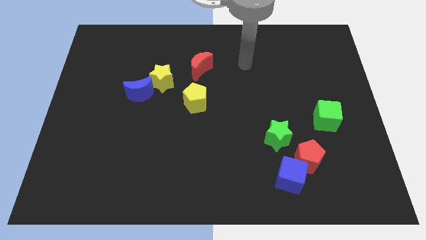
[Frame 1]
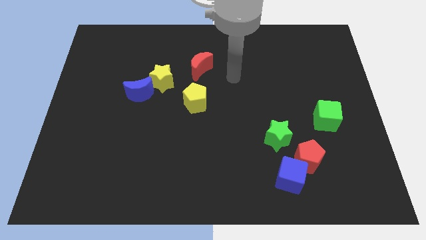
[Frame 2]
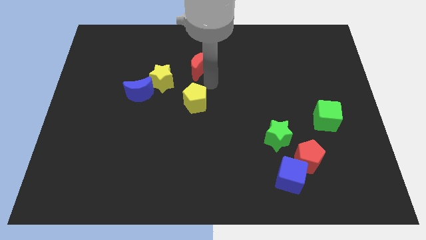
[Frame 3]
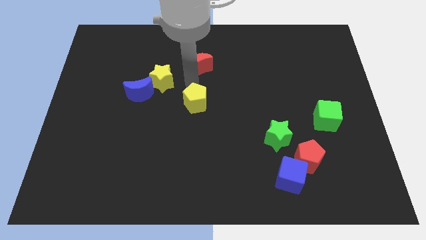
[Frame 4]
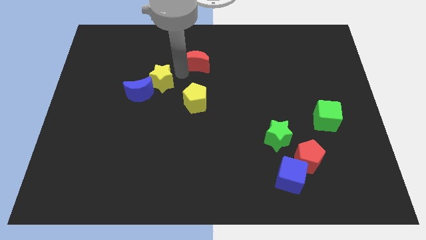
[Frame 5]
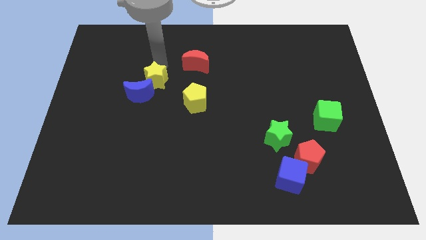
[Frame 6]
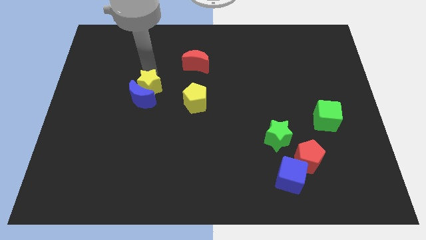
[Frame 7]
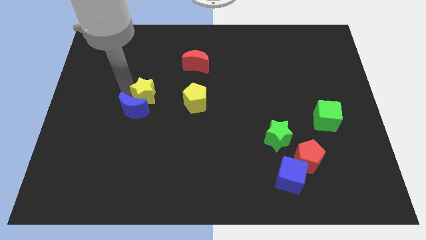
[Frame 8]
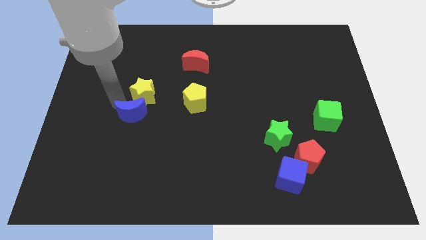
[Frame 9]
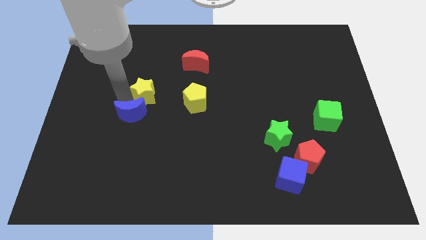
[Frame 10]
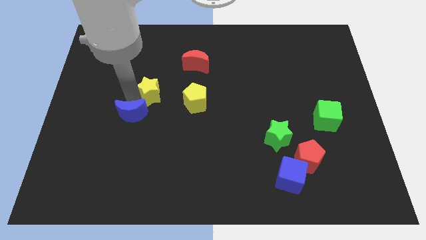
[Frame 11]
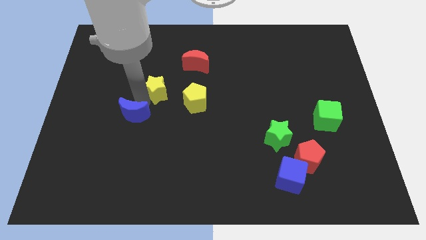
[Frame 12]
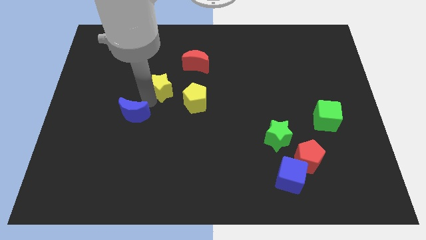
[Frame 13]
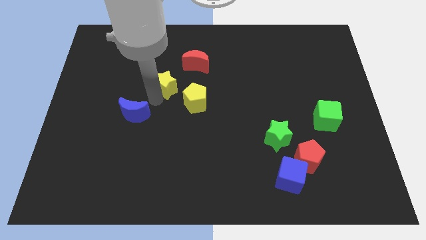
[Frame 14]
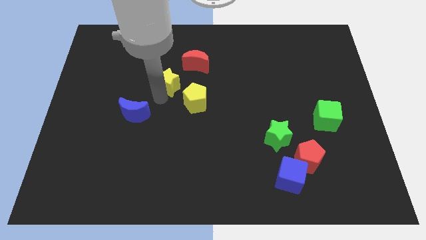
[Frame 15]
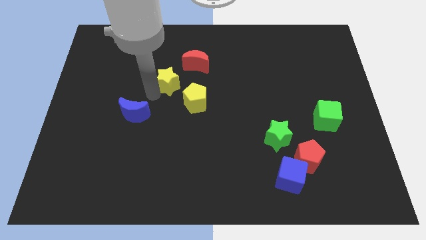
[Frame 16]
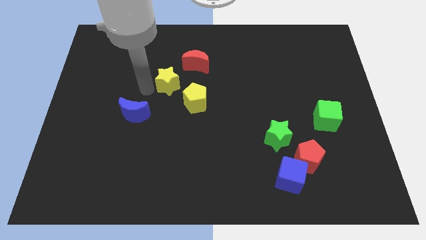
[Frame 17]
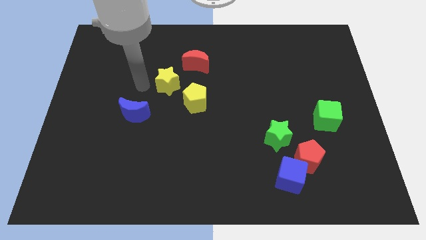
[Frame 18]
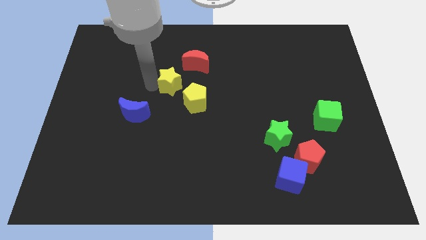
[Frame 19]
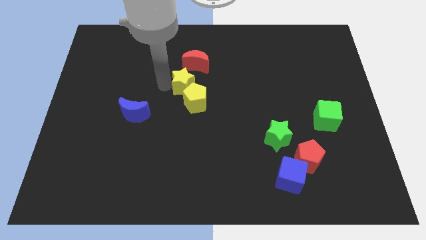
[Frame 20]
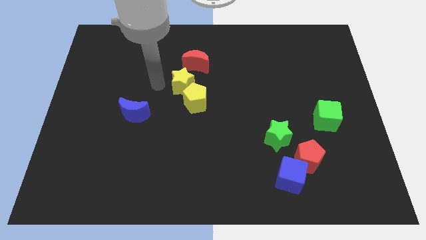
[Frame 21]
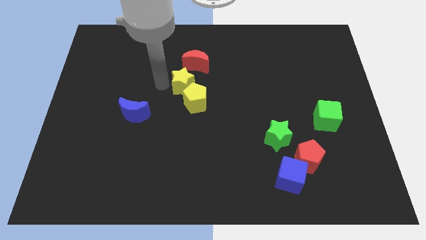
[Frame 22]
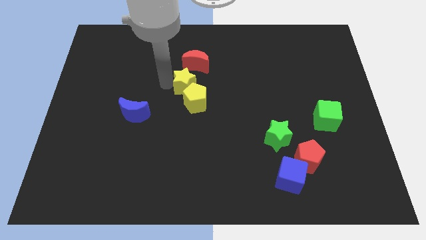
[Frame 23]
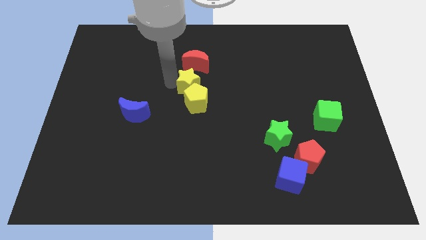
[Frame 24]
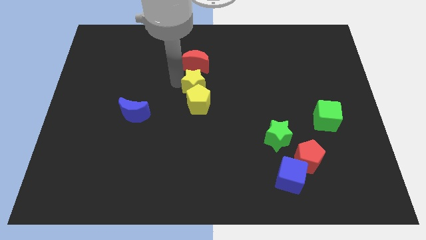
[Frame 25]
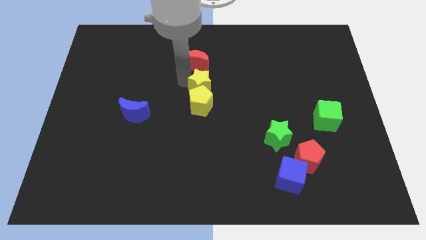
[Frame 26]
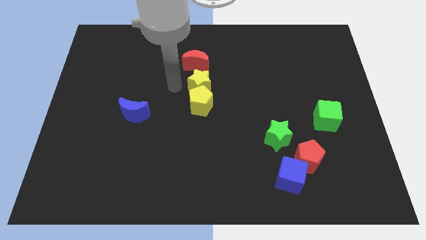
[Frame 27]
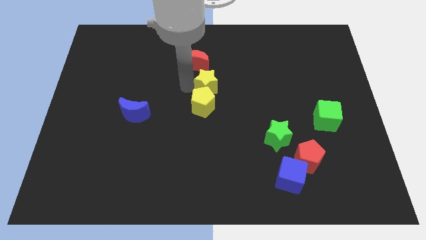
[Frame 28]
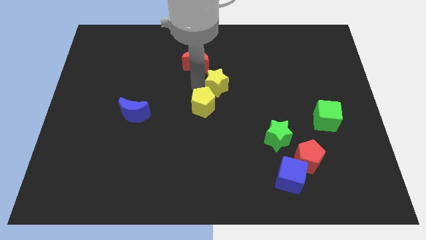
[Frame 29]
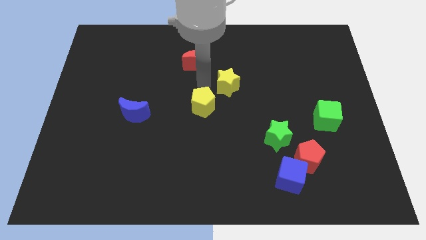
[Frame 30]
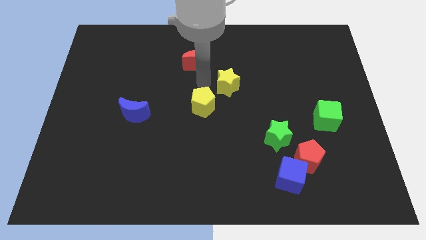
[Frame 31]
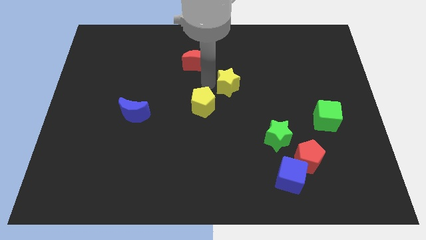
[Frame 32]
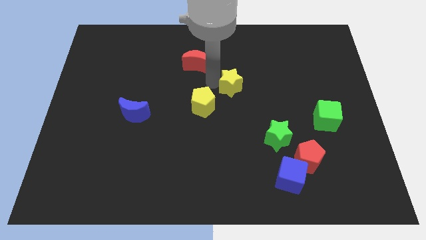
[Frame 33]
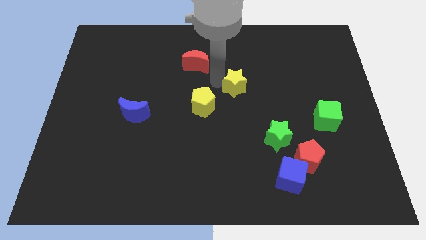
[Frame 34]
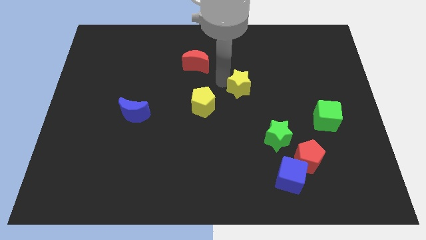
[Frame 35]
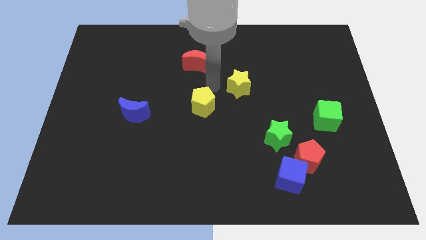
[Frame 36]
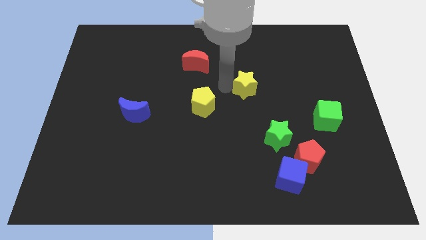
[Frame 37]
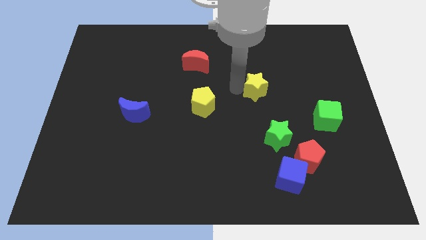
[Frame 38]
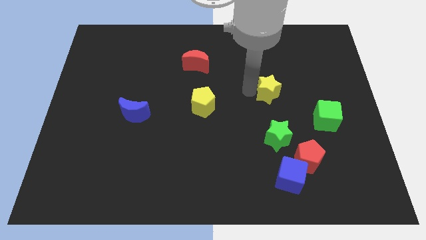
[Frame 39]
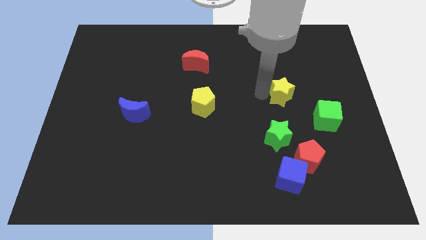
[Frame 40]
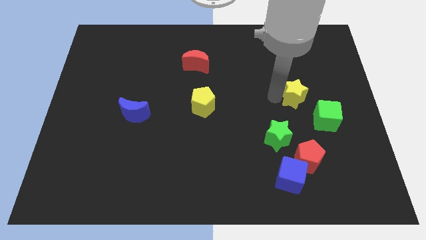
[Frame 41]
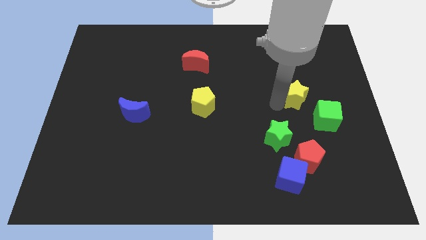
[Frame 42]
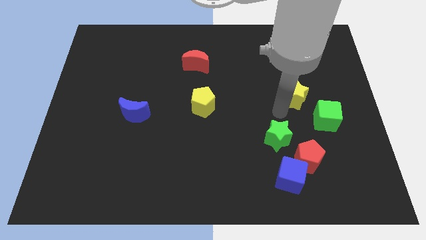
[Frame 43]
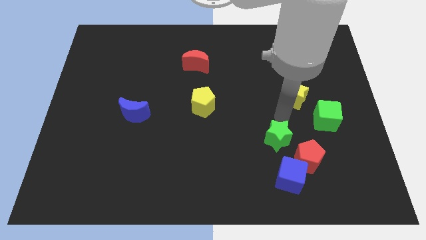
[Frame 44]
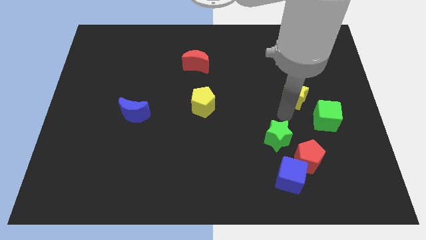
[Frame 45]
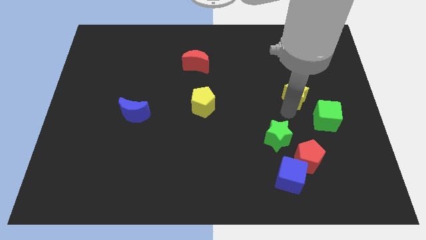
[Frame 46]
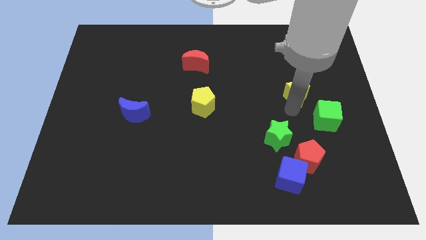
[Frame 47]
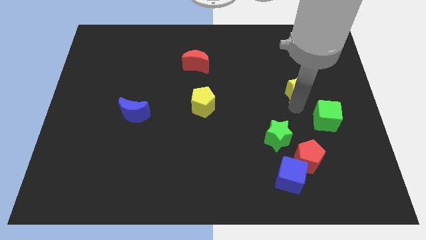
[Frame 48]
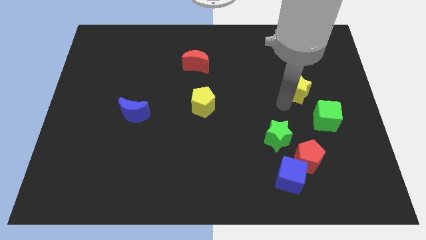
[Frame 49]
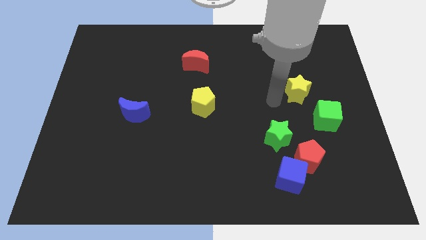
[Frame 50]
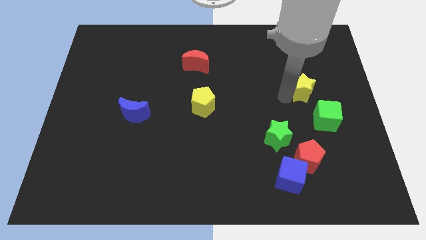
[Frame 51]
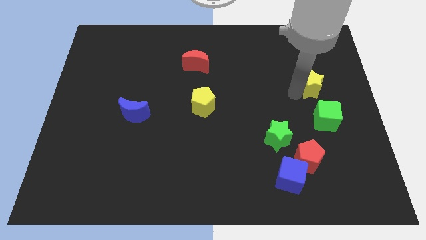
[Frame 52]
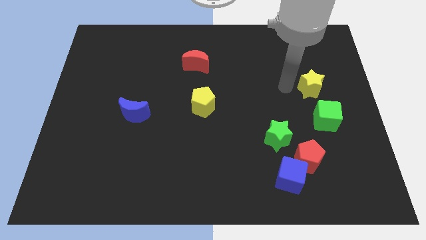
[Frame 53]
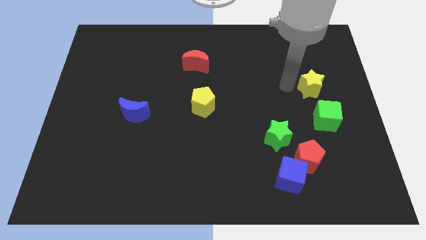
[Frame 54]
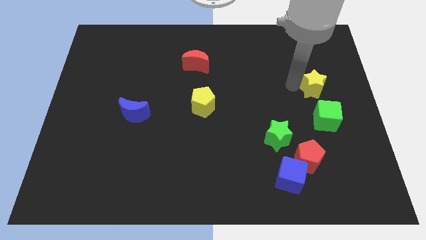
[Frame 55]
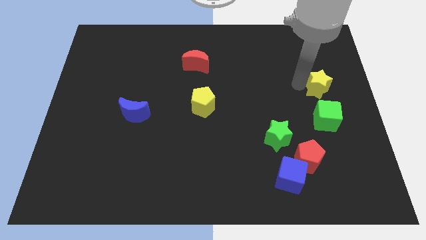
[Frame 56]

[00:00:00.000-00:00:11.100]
push the yellow star to the center right
